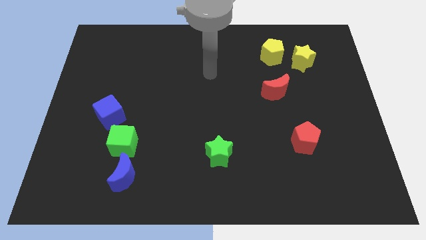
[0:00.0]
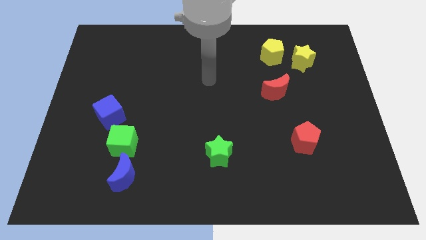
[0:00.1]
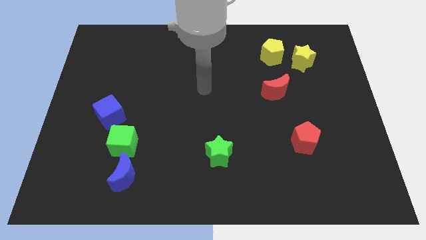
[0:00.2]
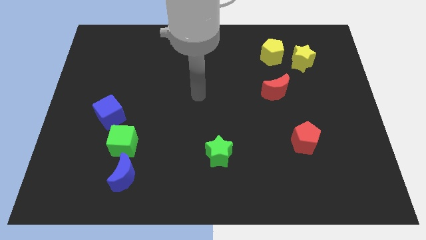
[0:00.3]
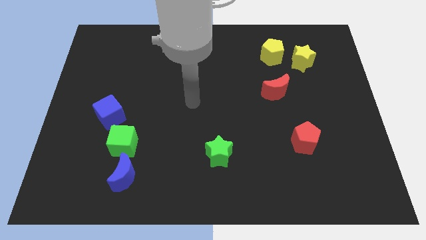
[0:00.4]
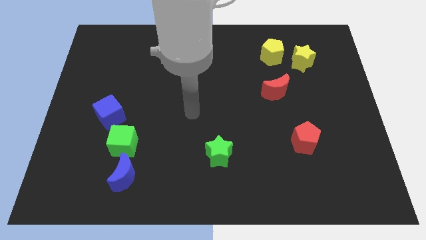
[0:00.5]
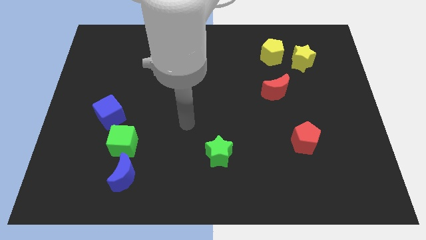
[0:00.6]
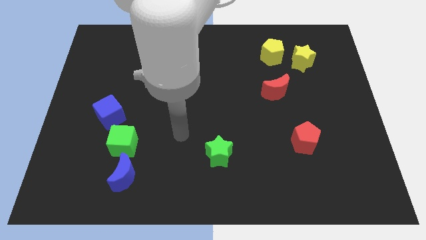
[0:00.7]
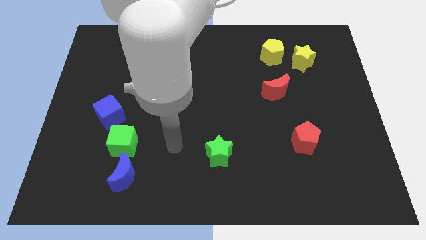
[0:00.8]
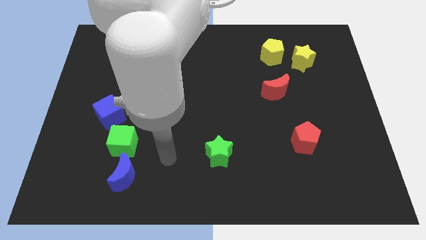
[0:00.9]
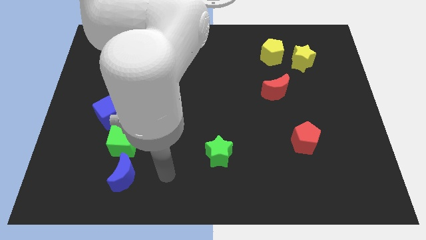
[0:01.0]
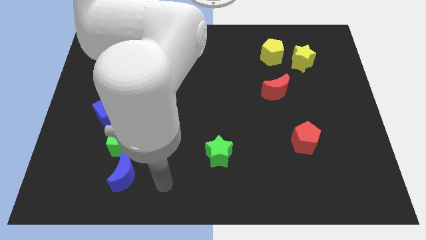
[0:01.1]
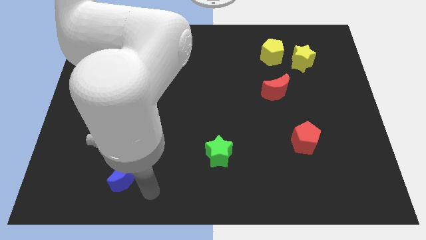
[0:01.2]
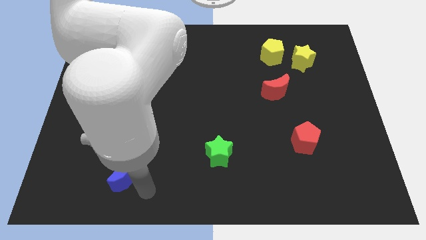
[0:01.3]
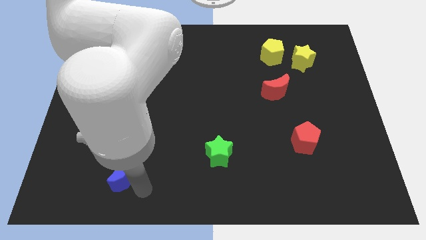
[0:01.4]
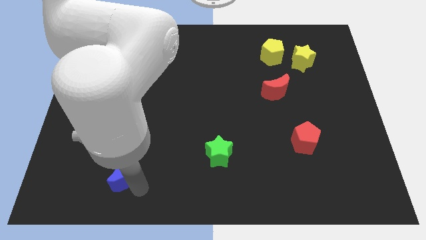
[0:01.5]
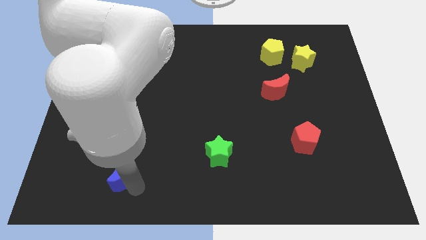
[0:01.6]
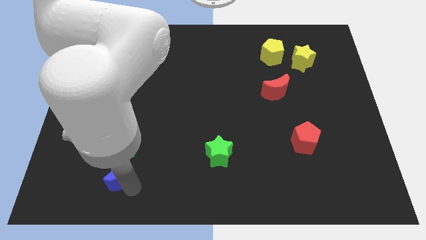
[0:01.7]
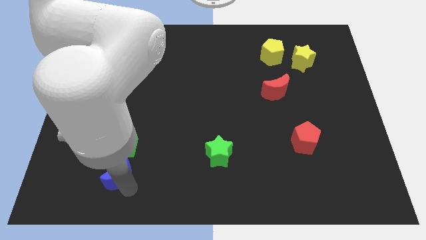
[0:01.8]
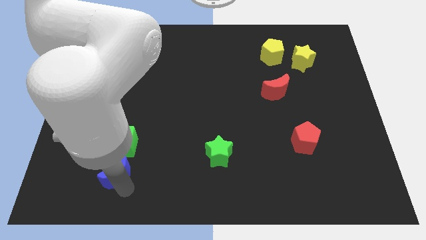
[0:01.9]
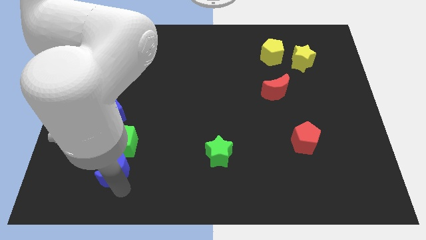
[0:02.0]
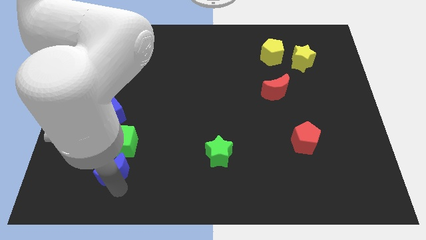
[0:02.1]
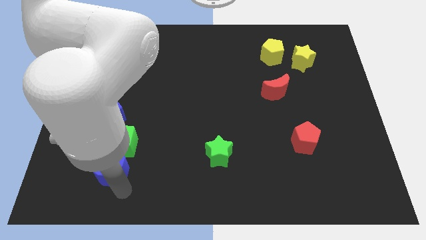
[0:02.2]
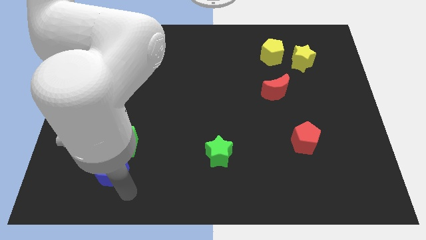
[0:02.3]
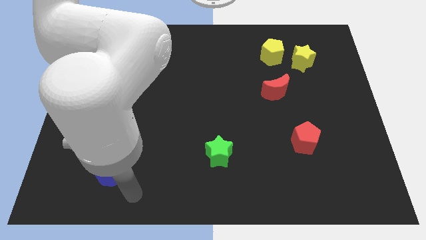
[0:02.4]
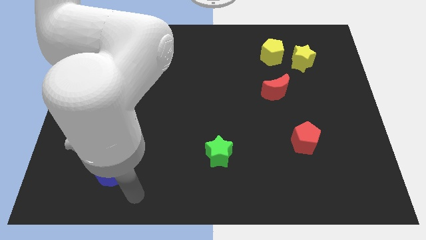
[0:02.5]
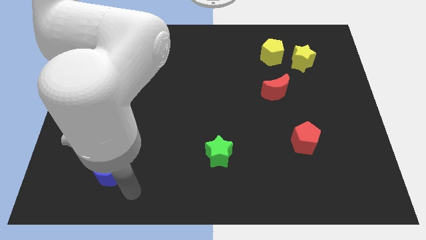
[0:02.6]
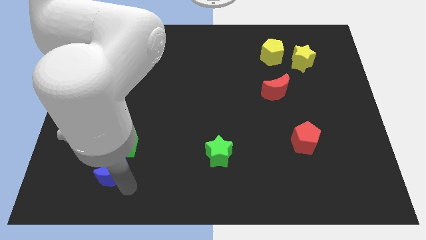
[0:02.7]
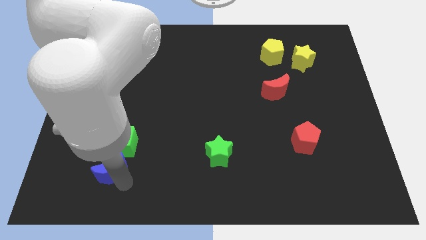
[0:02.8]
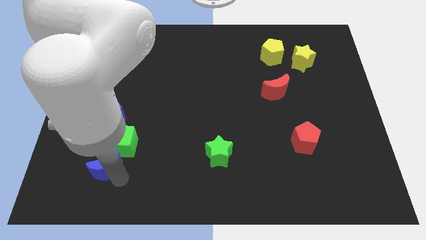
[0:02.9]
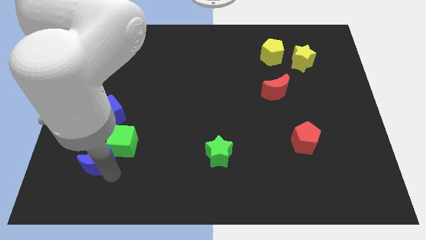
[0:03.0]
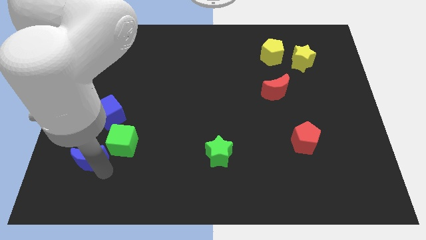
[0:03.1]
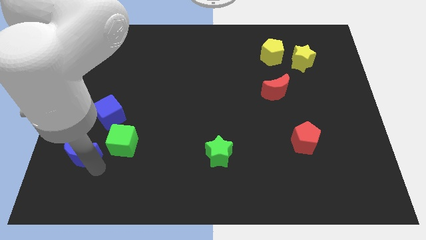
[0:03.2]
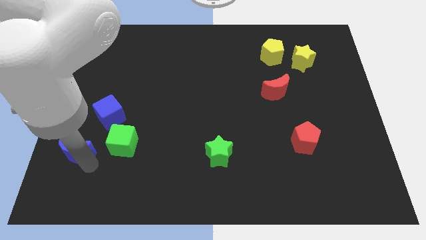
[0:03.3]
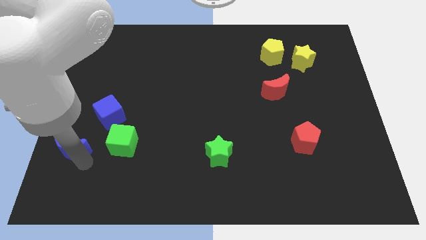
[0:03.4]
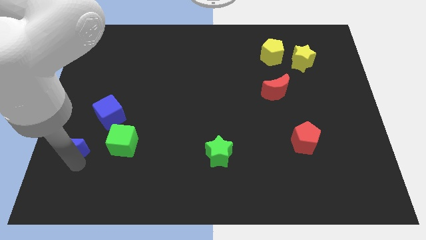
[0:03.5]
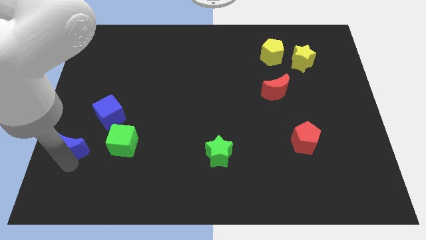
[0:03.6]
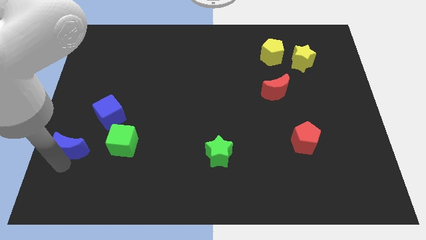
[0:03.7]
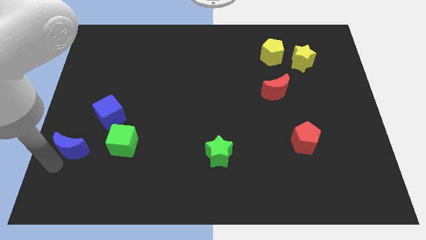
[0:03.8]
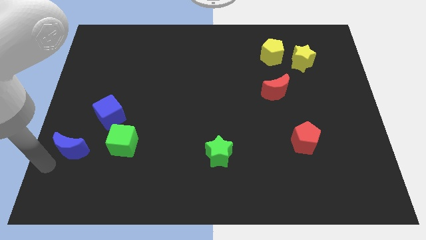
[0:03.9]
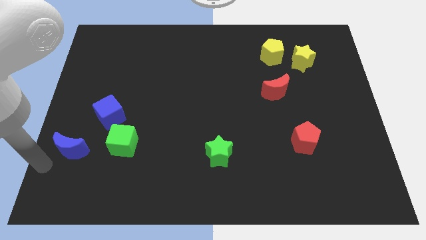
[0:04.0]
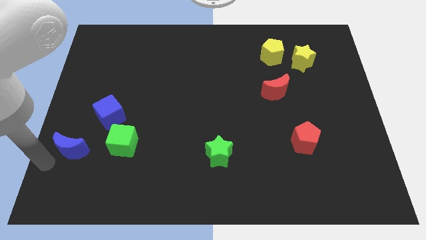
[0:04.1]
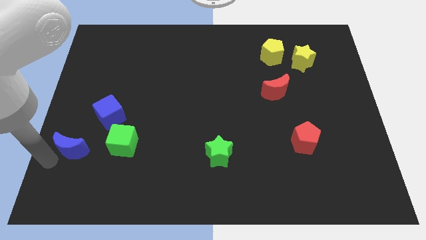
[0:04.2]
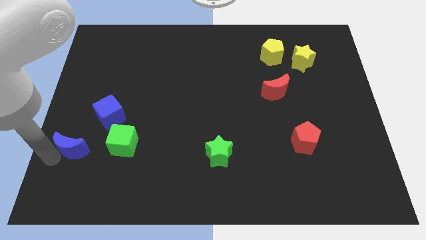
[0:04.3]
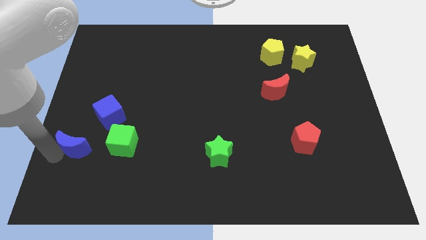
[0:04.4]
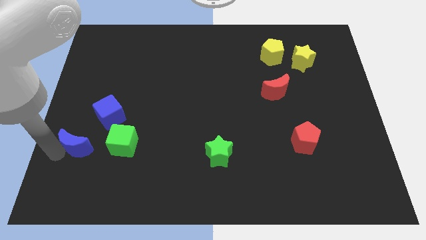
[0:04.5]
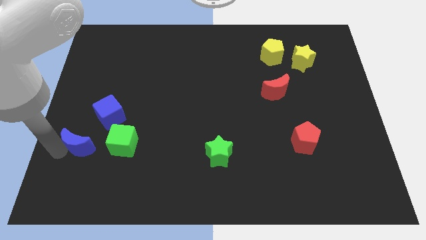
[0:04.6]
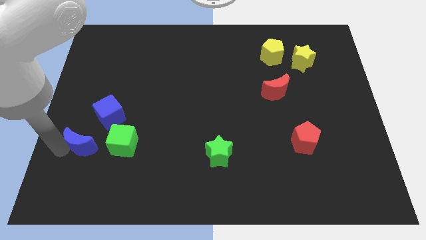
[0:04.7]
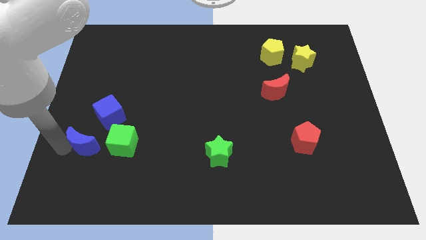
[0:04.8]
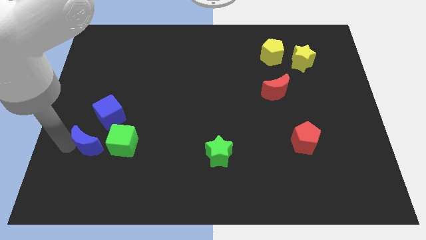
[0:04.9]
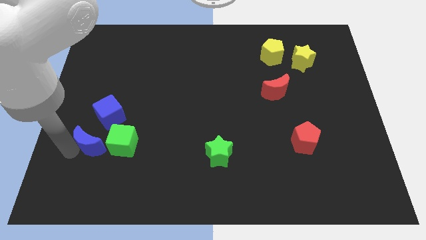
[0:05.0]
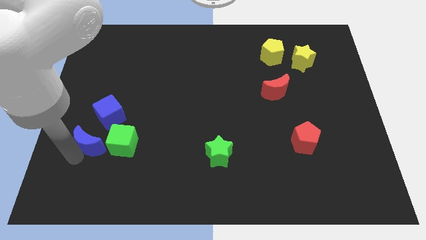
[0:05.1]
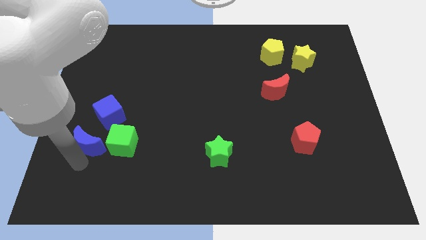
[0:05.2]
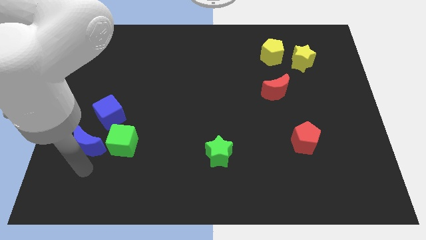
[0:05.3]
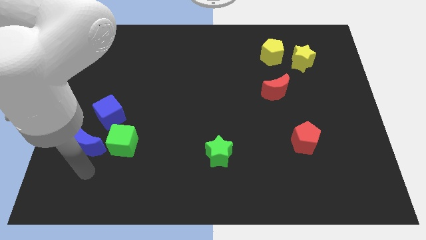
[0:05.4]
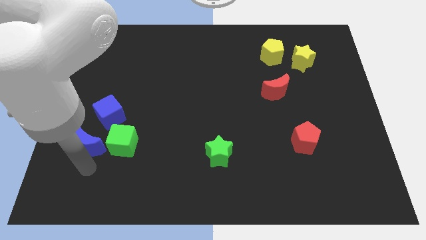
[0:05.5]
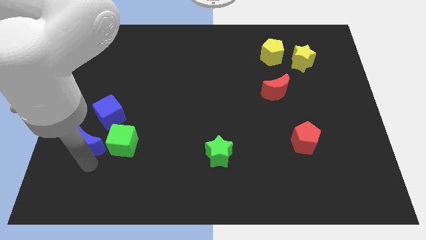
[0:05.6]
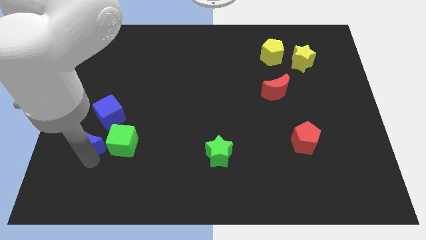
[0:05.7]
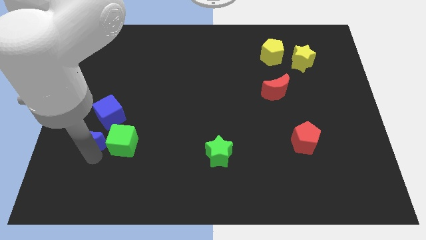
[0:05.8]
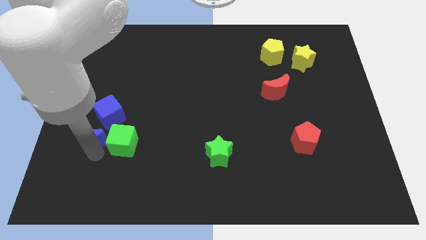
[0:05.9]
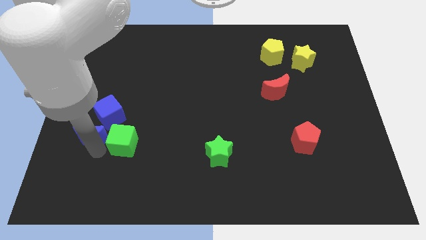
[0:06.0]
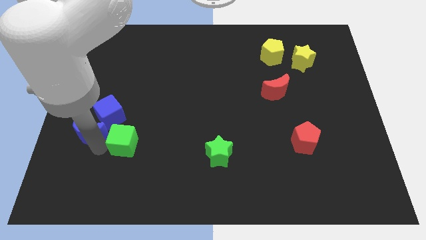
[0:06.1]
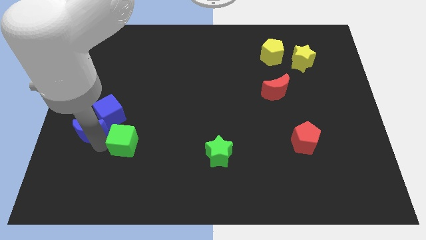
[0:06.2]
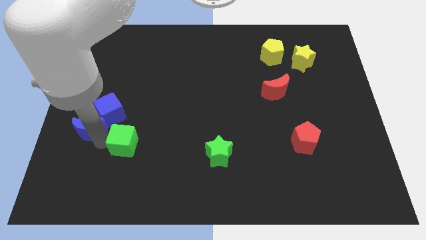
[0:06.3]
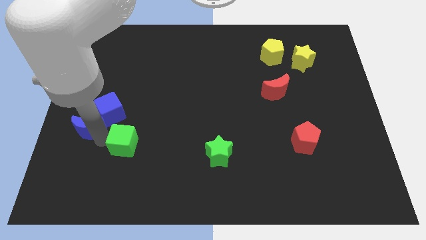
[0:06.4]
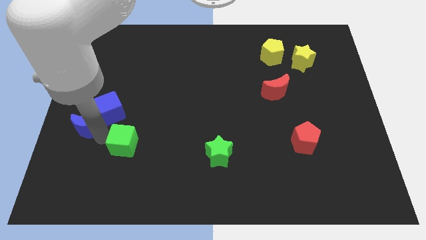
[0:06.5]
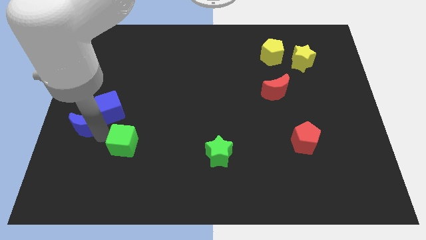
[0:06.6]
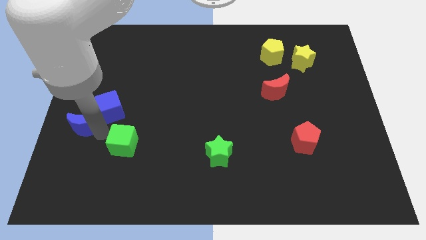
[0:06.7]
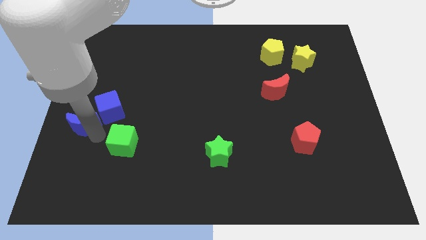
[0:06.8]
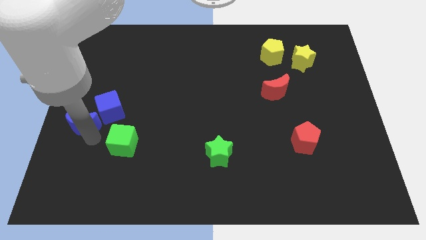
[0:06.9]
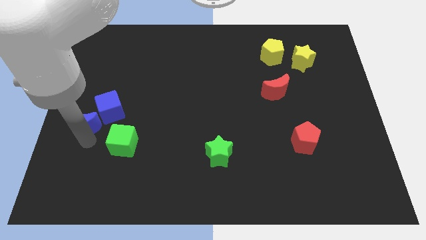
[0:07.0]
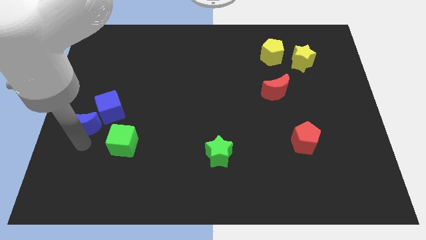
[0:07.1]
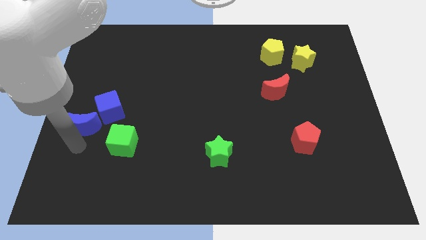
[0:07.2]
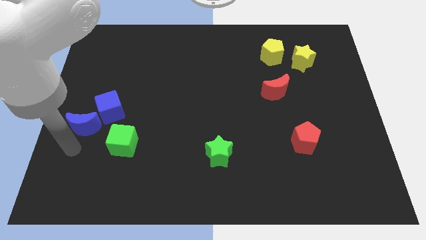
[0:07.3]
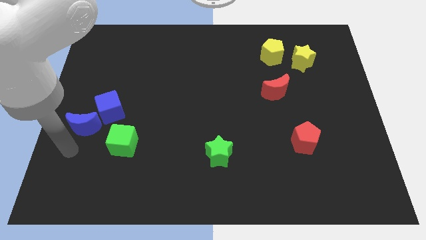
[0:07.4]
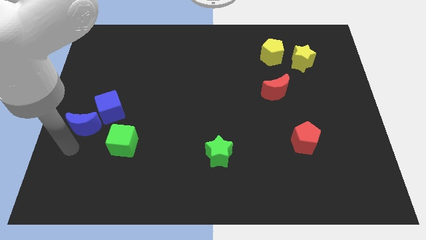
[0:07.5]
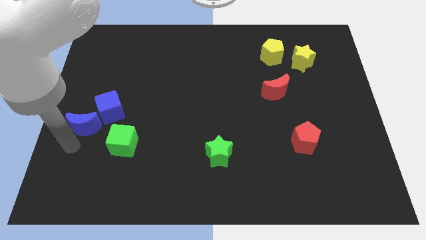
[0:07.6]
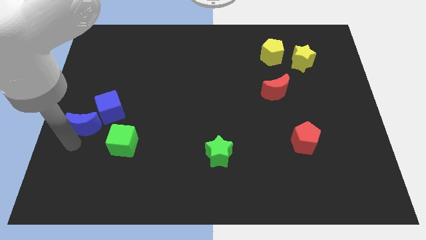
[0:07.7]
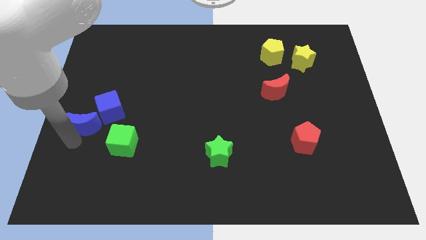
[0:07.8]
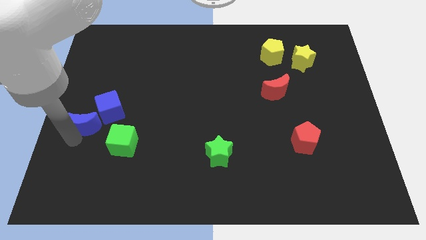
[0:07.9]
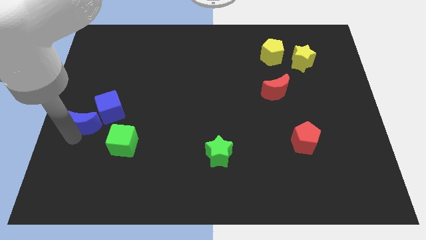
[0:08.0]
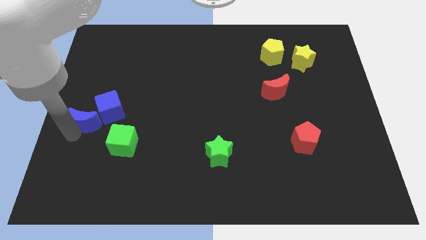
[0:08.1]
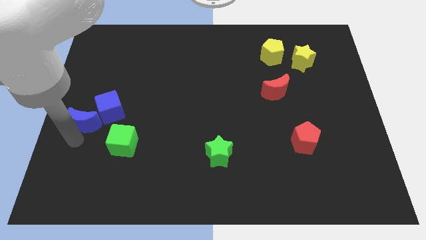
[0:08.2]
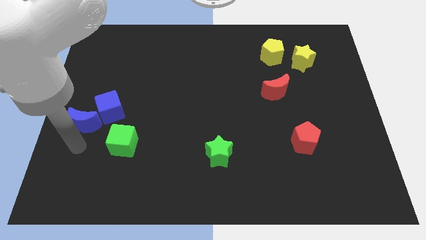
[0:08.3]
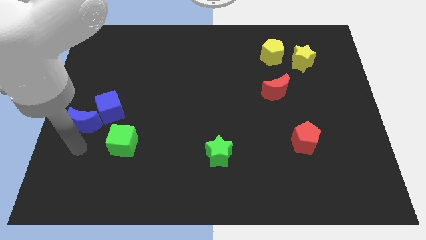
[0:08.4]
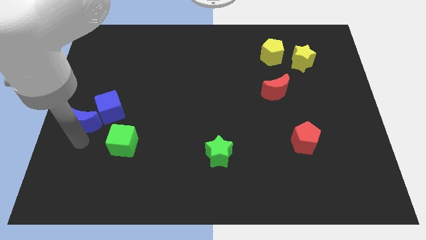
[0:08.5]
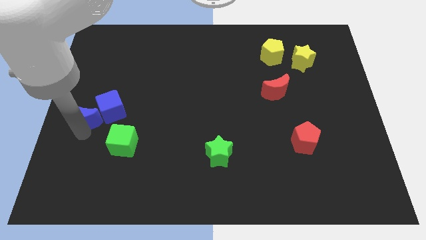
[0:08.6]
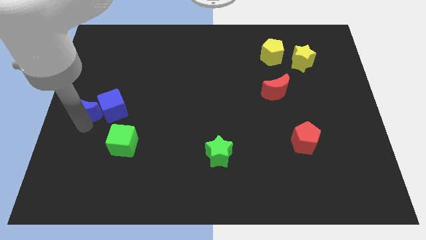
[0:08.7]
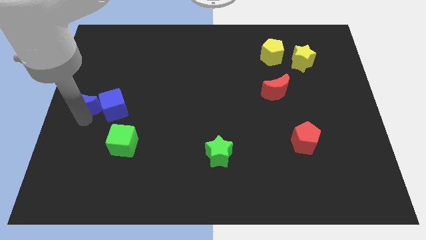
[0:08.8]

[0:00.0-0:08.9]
slide the blue moon to the top left side of the blue cube
